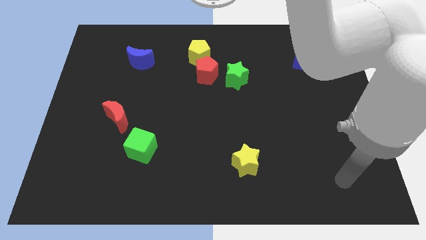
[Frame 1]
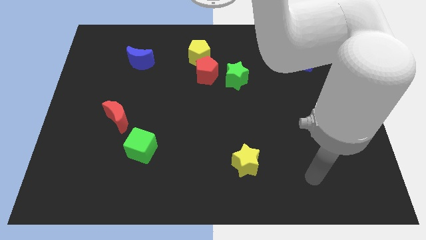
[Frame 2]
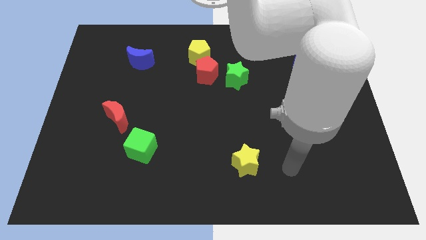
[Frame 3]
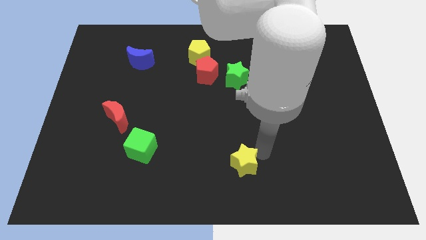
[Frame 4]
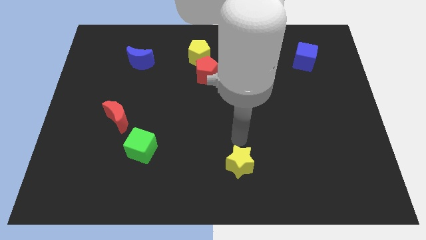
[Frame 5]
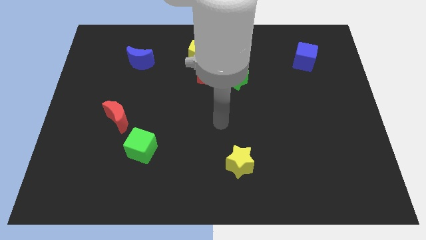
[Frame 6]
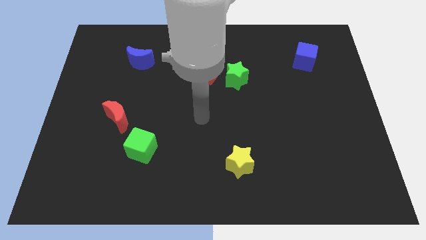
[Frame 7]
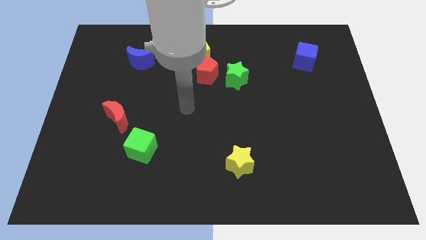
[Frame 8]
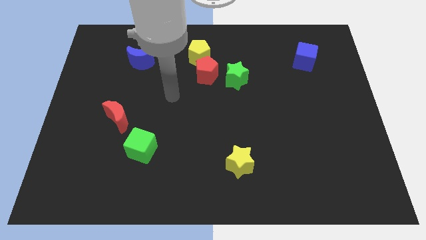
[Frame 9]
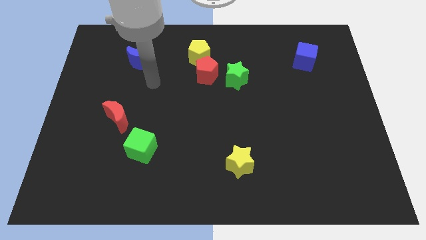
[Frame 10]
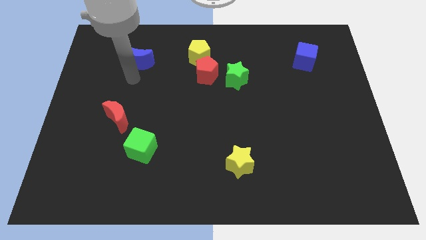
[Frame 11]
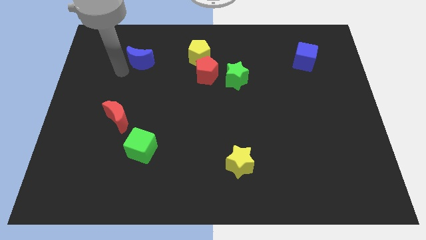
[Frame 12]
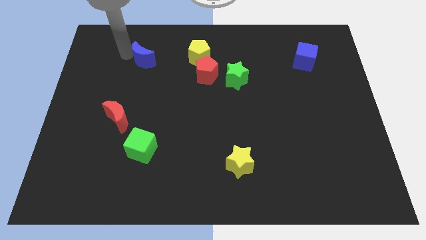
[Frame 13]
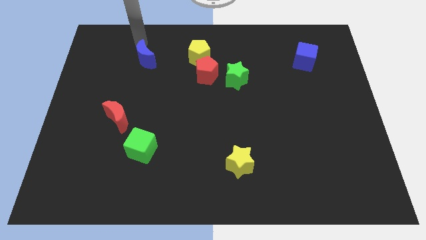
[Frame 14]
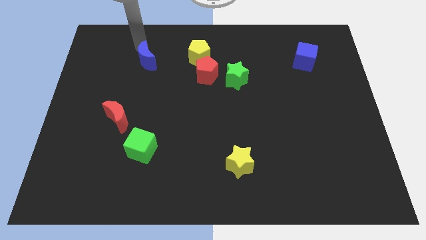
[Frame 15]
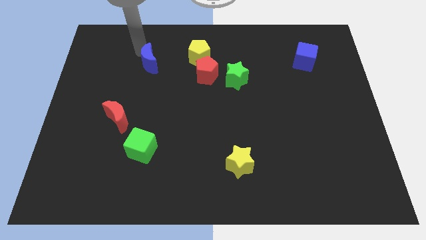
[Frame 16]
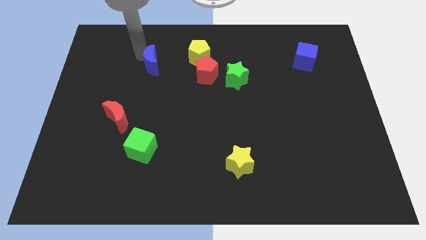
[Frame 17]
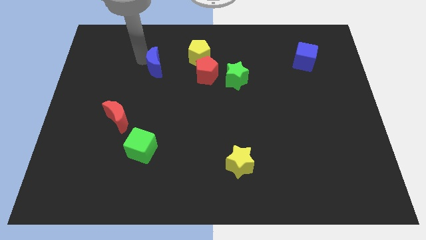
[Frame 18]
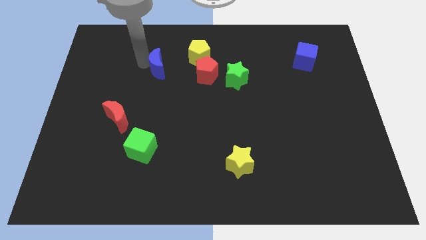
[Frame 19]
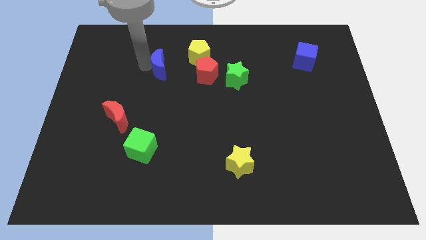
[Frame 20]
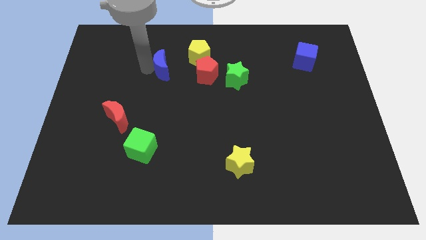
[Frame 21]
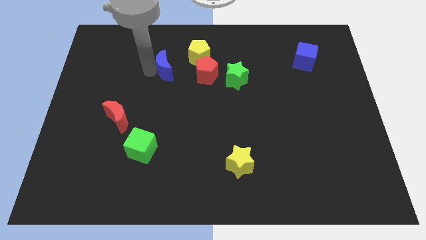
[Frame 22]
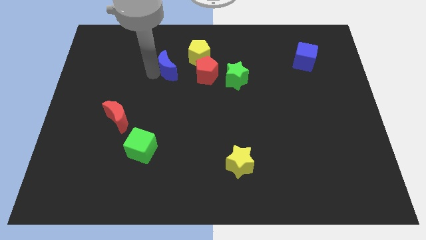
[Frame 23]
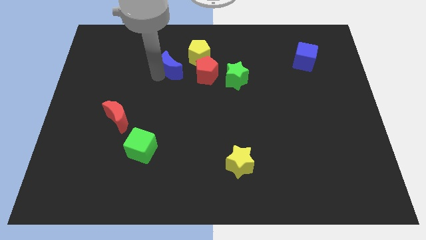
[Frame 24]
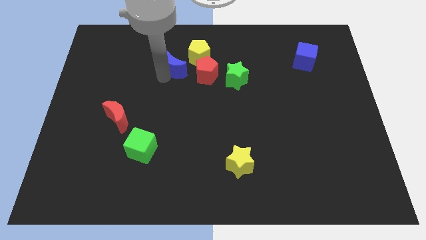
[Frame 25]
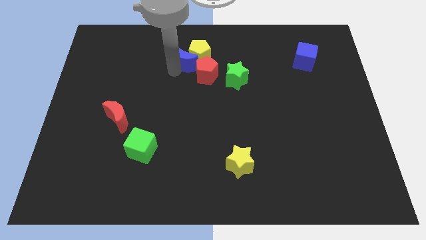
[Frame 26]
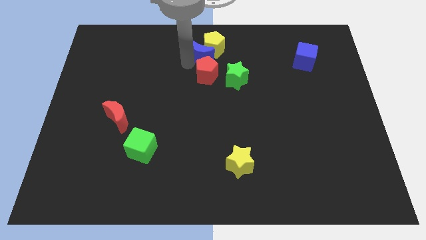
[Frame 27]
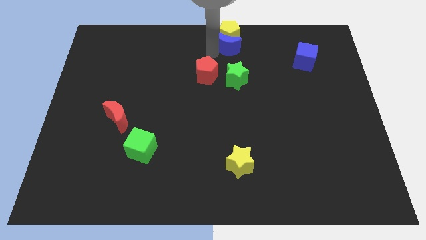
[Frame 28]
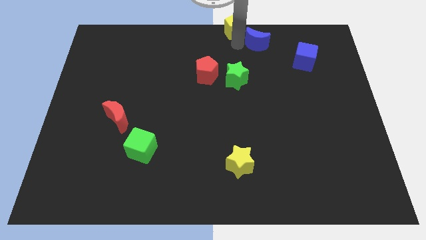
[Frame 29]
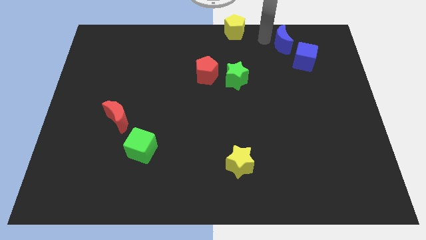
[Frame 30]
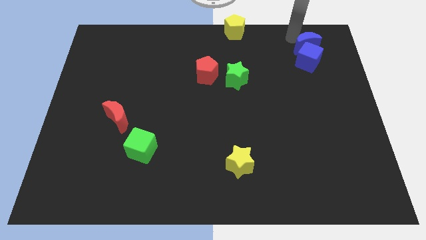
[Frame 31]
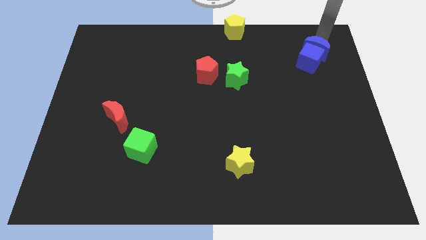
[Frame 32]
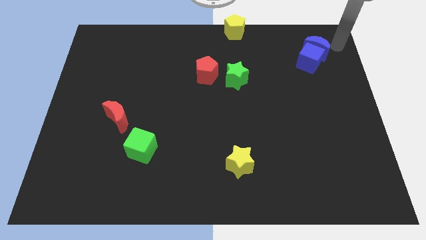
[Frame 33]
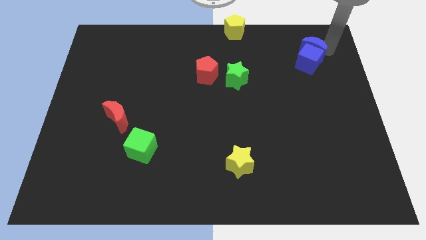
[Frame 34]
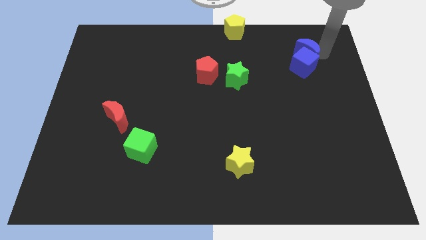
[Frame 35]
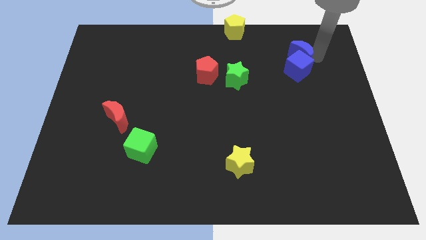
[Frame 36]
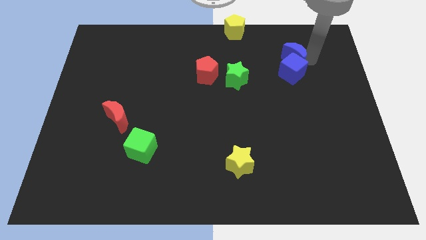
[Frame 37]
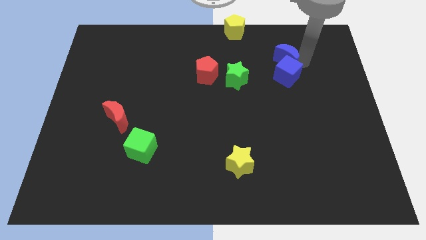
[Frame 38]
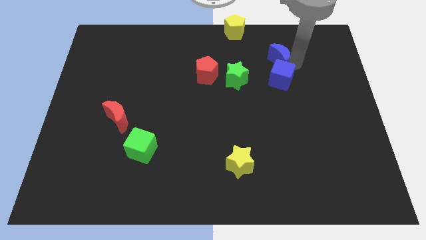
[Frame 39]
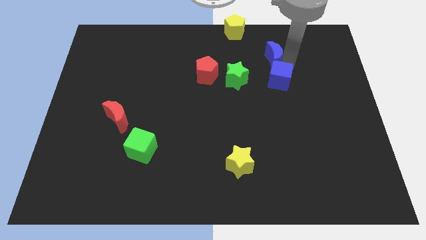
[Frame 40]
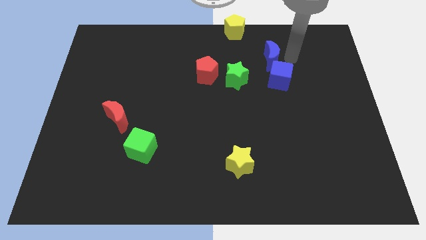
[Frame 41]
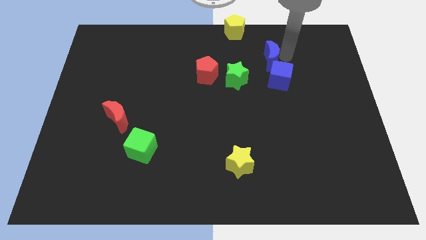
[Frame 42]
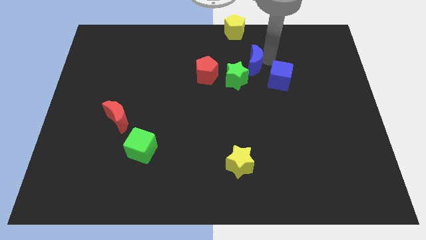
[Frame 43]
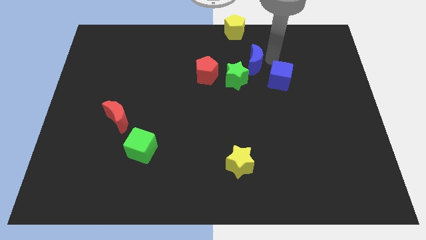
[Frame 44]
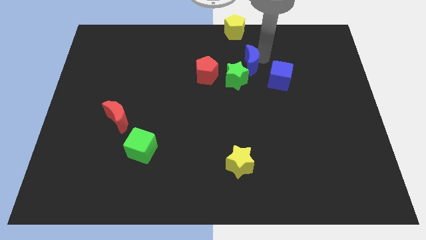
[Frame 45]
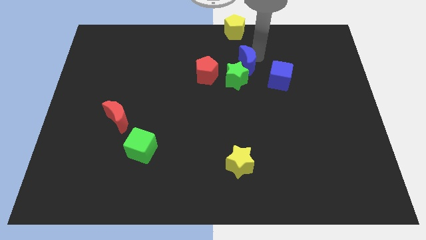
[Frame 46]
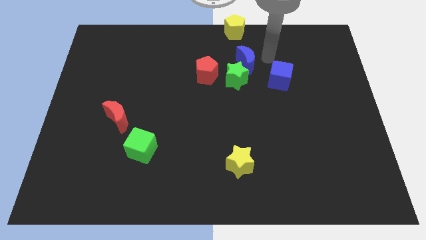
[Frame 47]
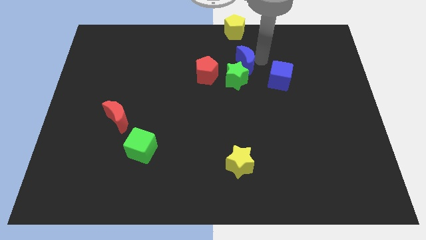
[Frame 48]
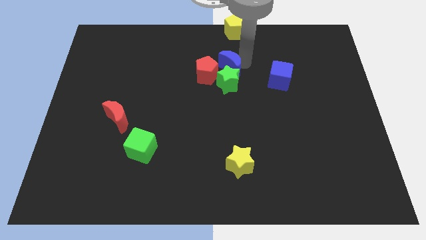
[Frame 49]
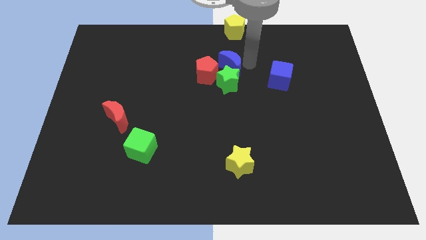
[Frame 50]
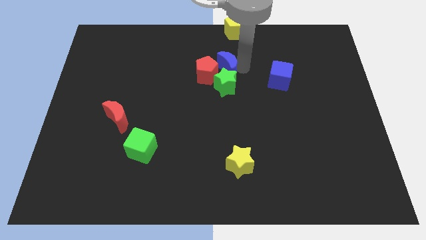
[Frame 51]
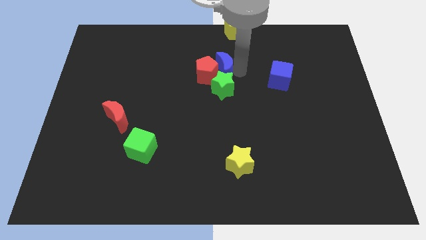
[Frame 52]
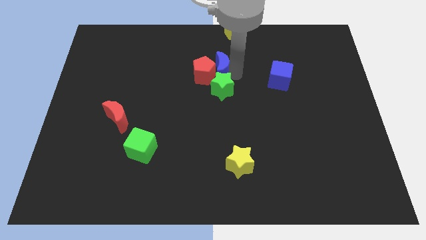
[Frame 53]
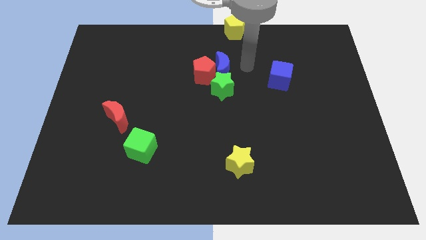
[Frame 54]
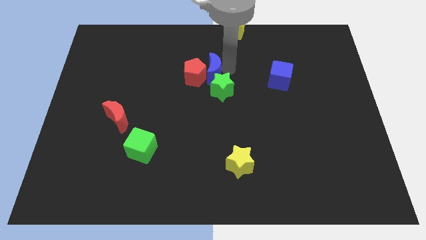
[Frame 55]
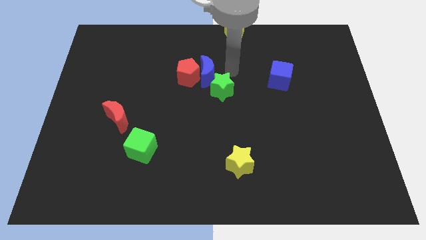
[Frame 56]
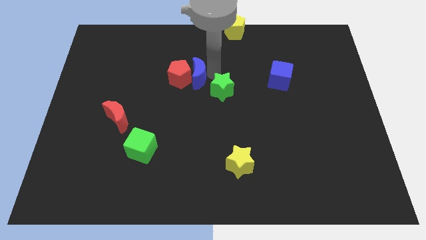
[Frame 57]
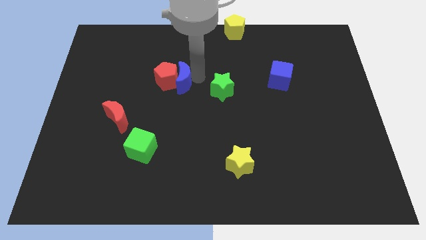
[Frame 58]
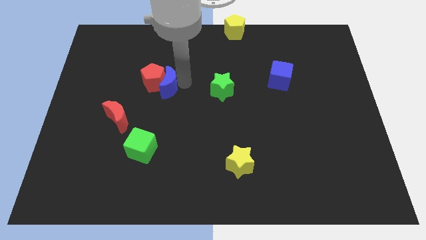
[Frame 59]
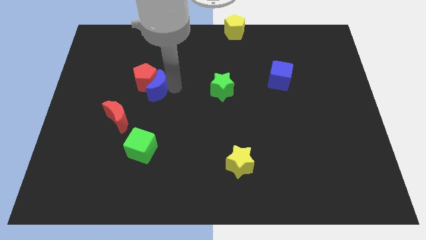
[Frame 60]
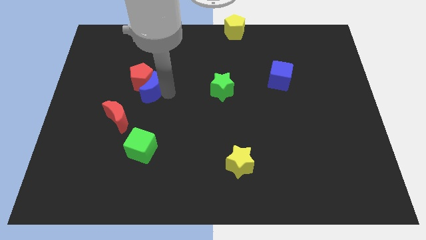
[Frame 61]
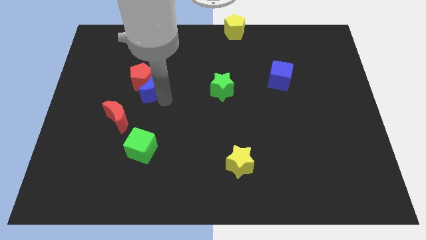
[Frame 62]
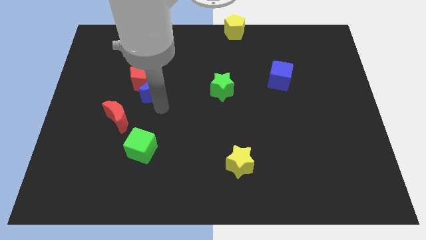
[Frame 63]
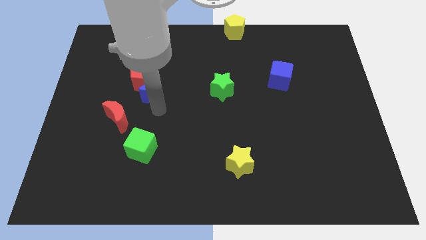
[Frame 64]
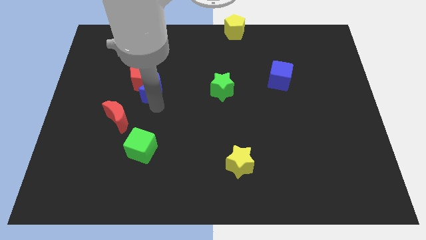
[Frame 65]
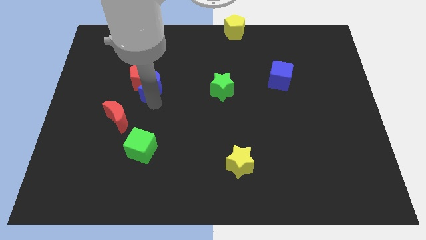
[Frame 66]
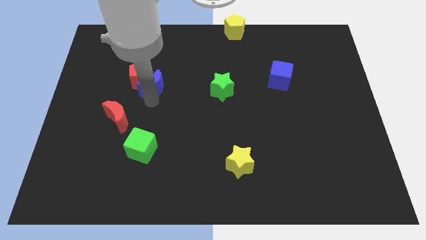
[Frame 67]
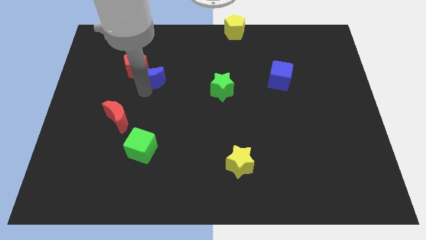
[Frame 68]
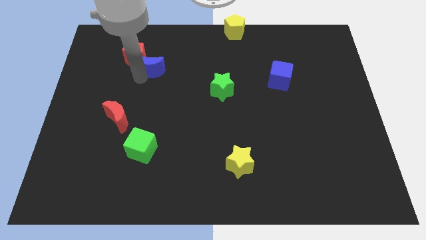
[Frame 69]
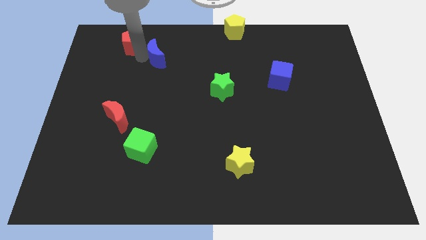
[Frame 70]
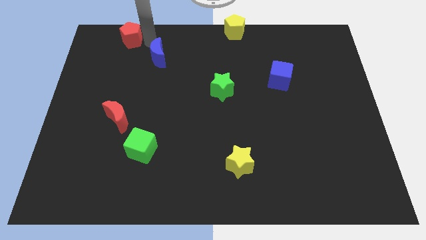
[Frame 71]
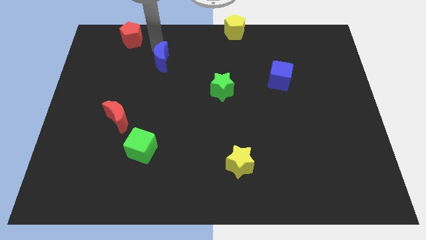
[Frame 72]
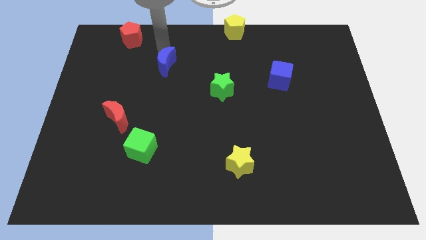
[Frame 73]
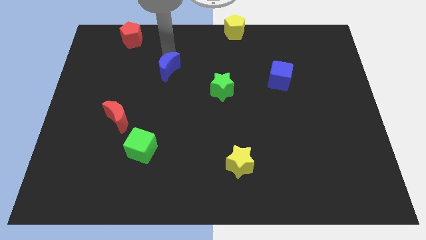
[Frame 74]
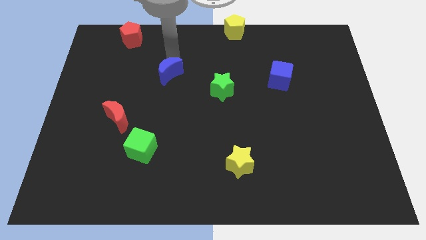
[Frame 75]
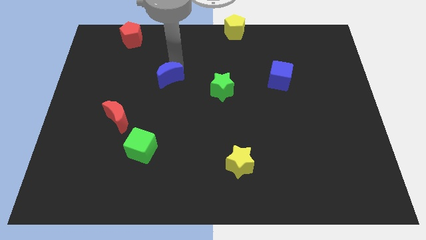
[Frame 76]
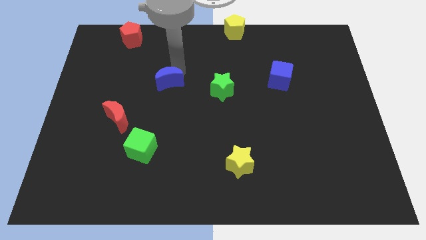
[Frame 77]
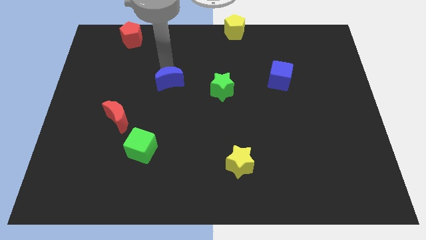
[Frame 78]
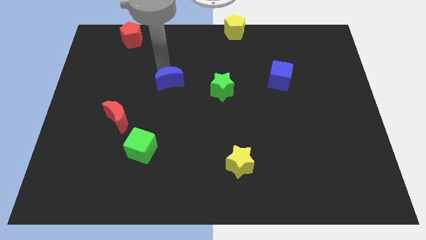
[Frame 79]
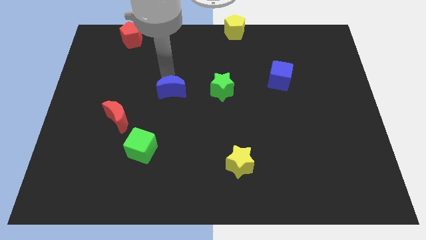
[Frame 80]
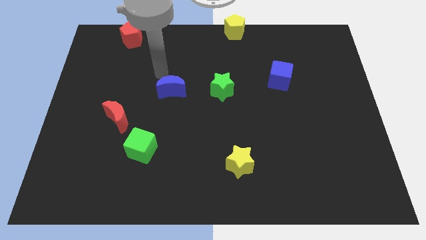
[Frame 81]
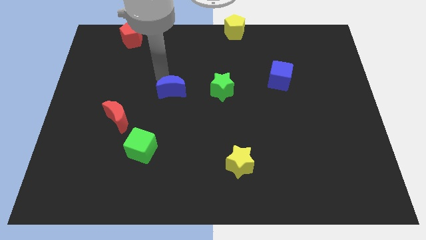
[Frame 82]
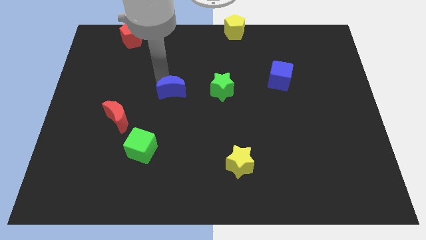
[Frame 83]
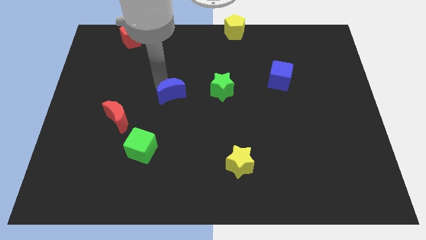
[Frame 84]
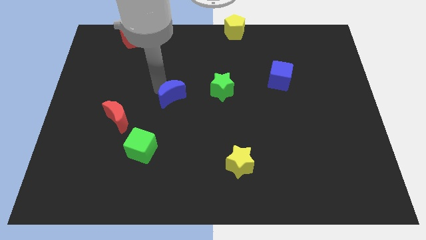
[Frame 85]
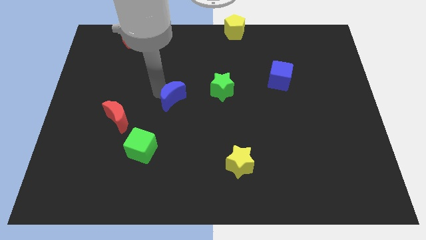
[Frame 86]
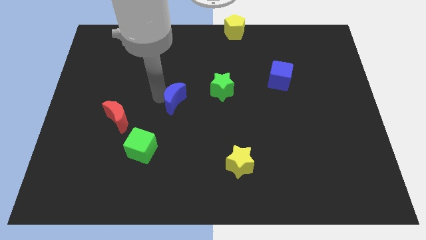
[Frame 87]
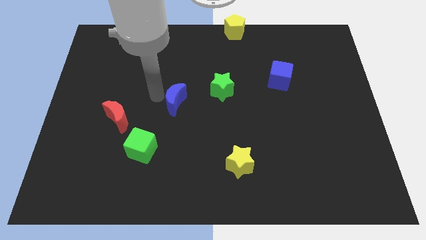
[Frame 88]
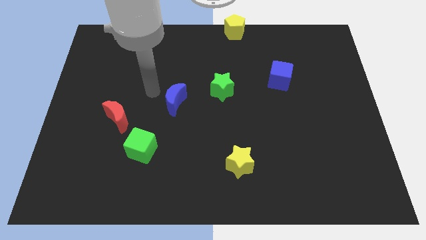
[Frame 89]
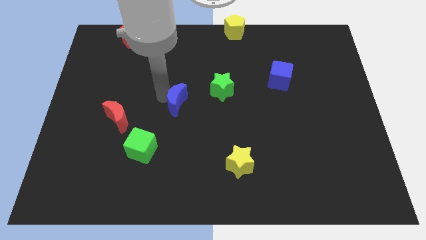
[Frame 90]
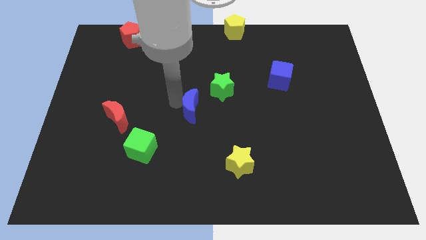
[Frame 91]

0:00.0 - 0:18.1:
move the blue moon down and to the right diagonally
